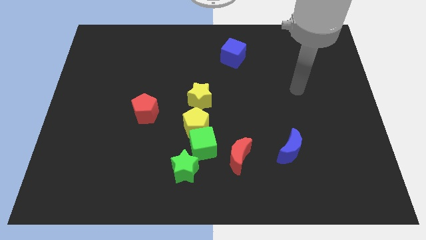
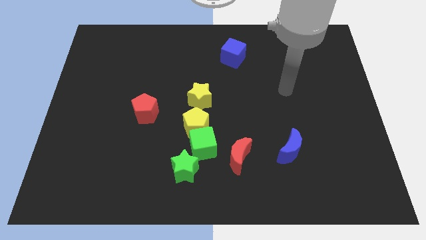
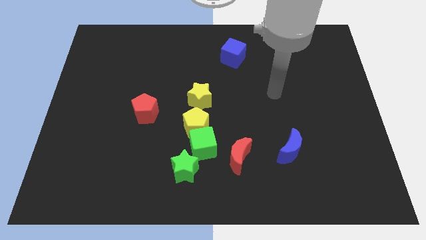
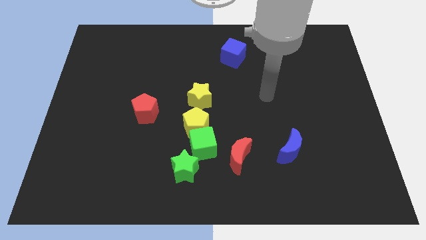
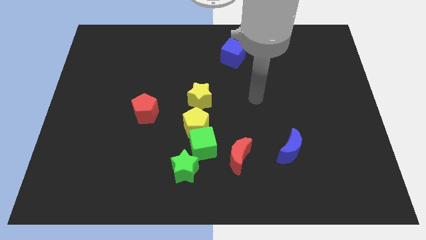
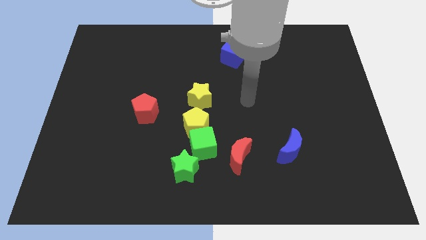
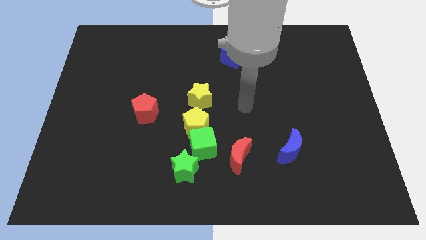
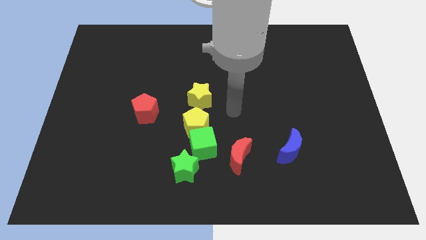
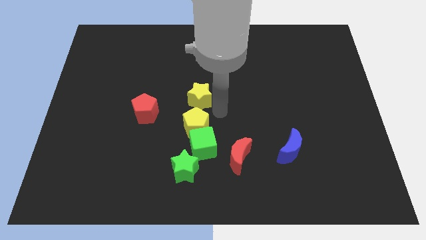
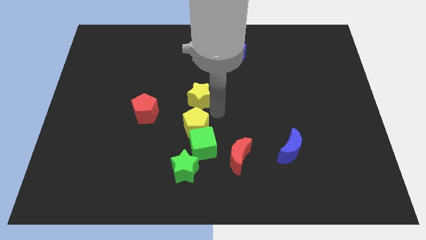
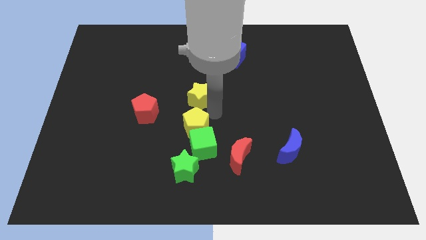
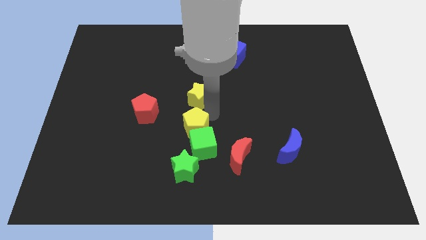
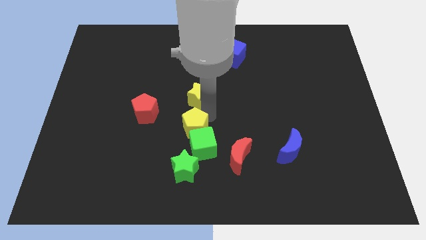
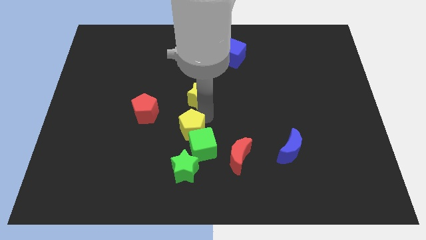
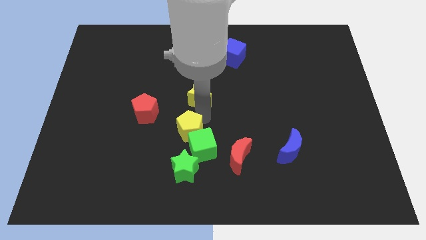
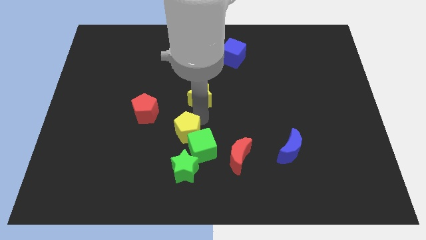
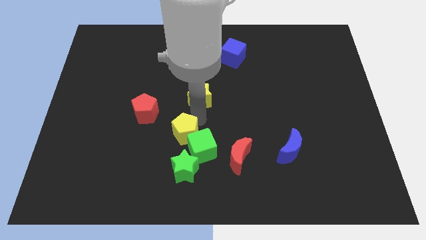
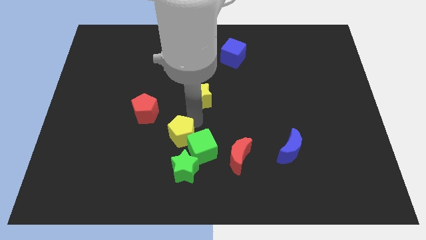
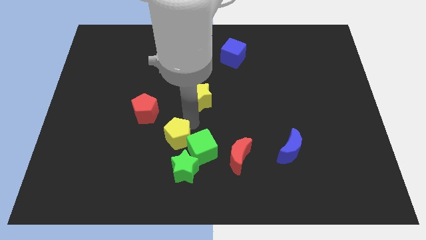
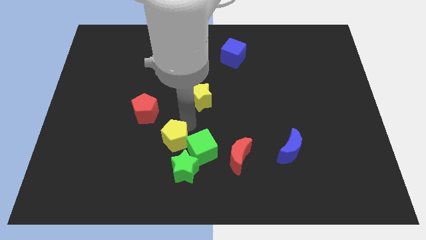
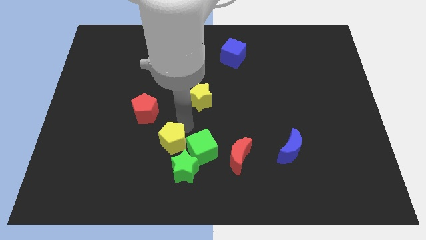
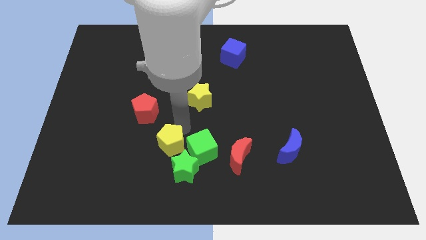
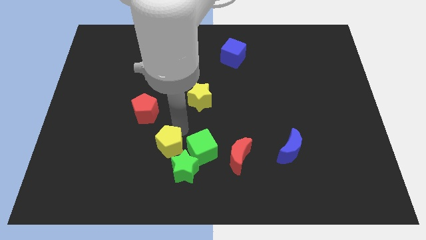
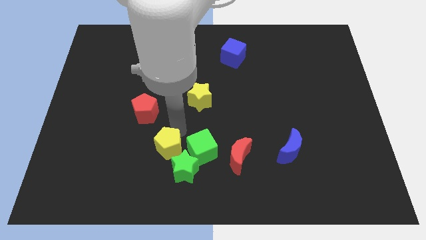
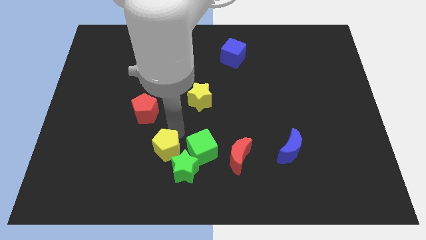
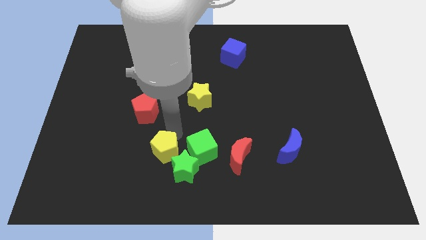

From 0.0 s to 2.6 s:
move the yellow pentagon away from the green cube and yellow star

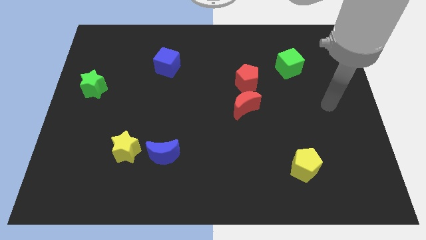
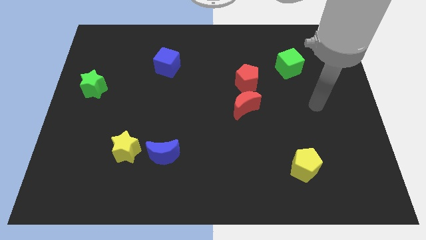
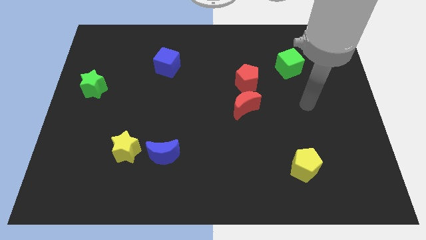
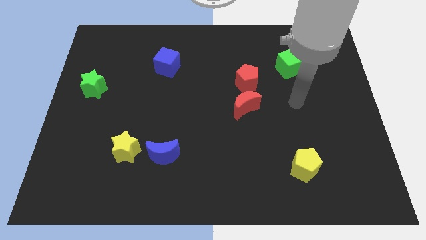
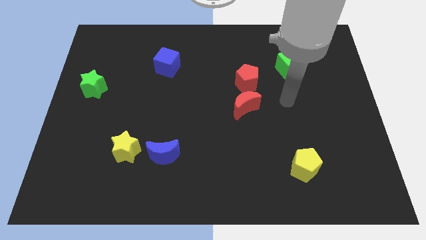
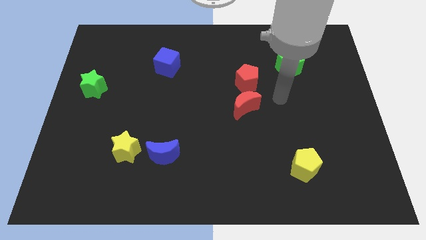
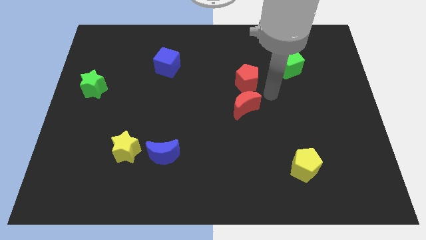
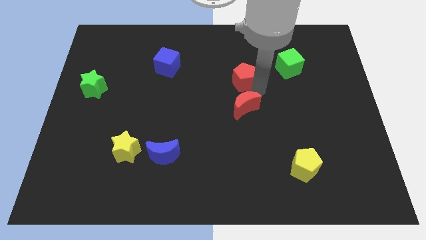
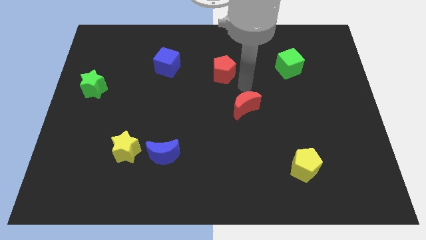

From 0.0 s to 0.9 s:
move the red moon away from the red pentagon

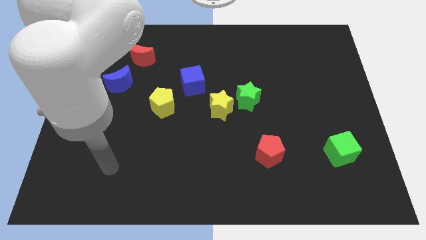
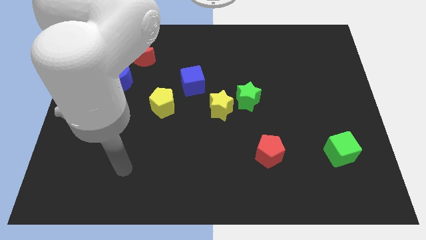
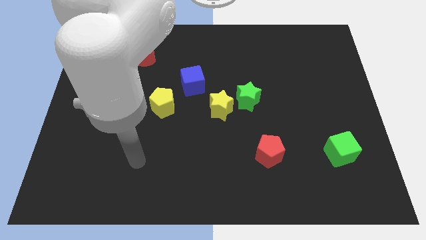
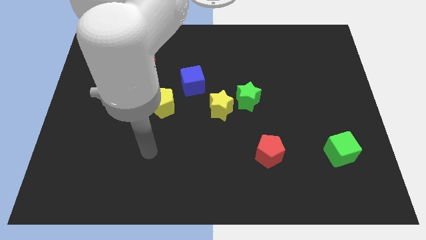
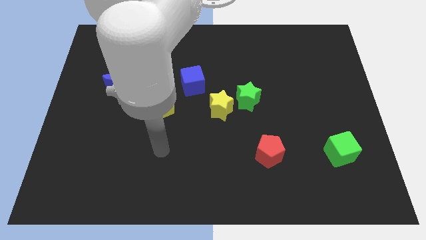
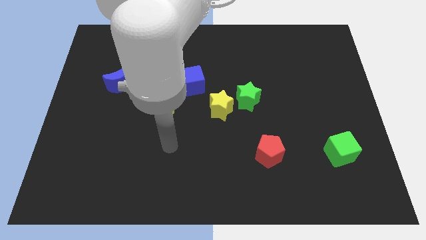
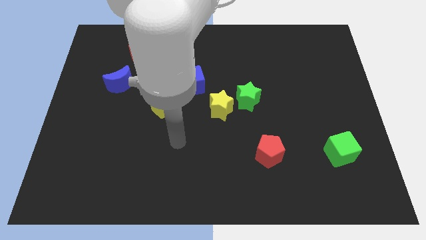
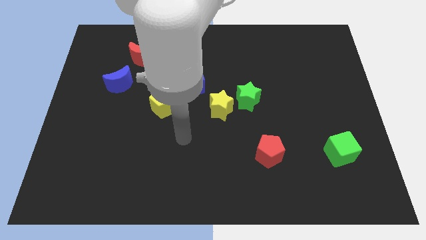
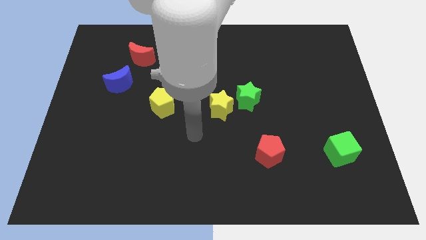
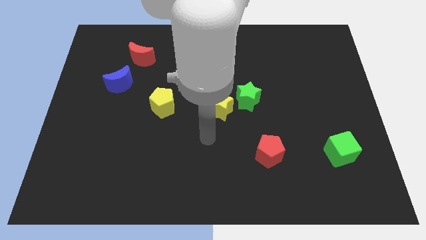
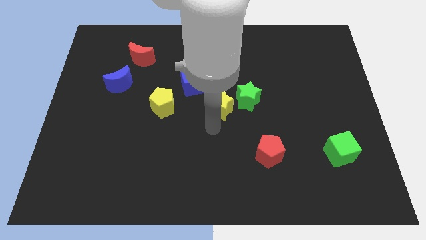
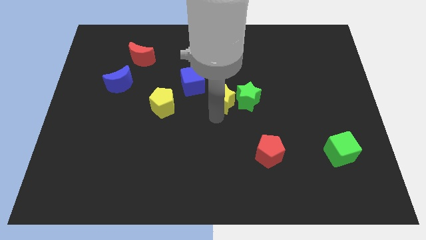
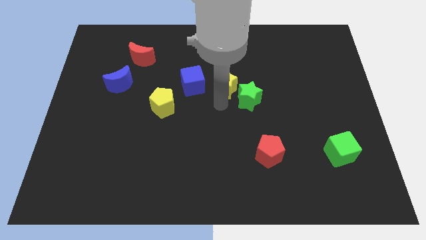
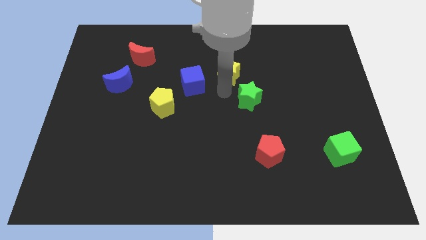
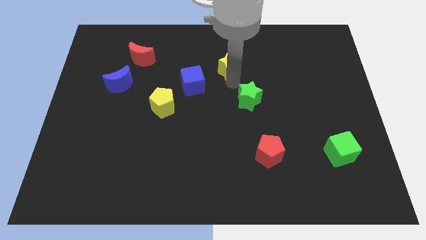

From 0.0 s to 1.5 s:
move the green star away from the yellow star

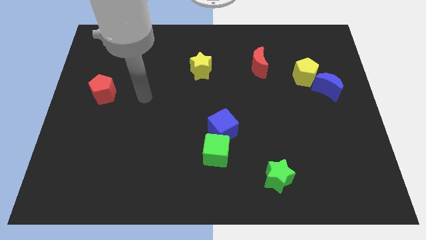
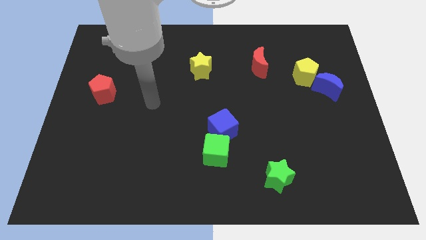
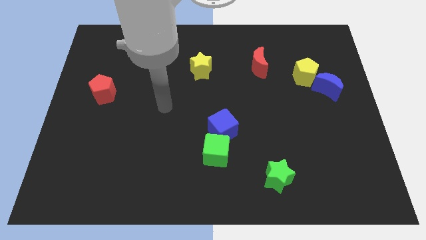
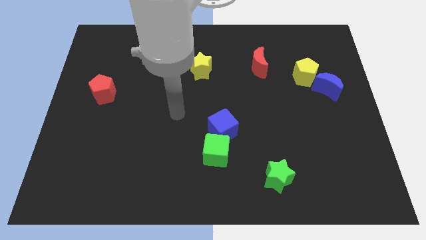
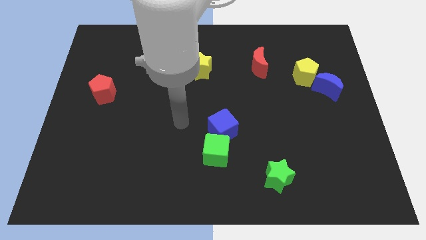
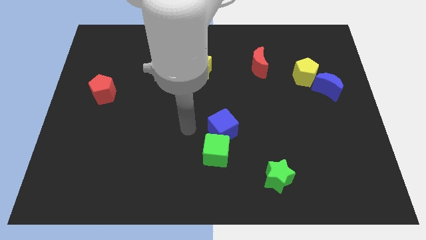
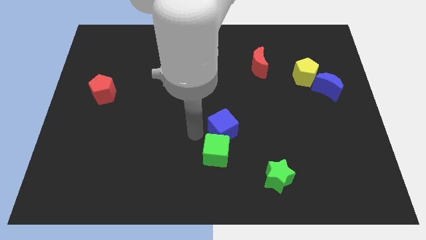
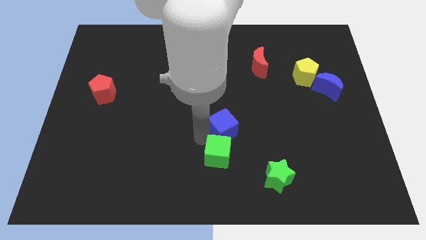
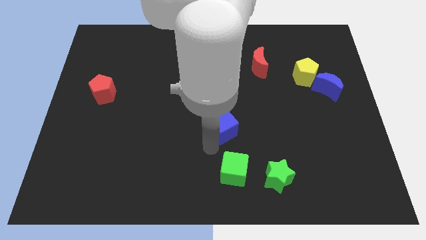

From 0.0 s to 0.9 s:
move the blue cube away from the green cube

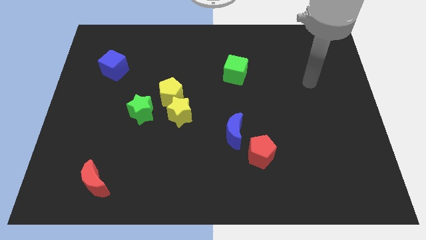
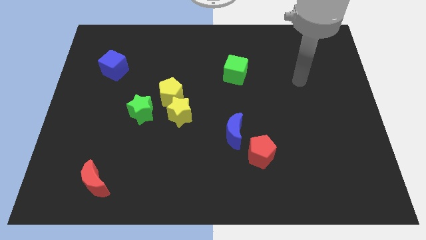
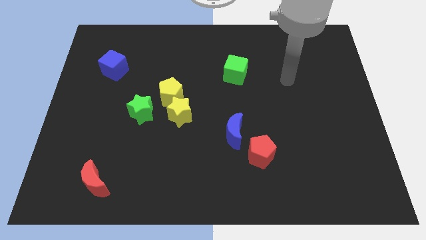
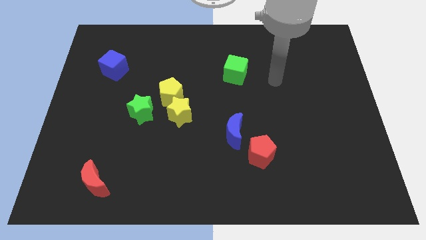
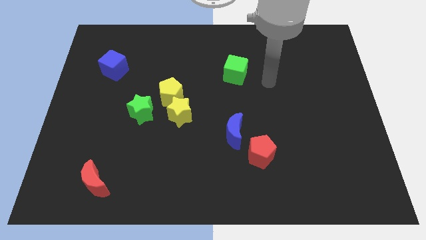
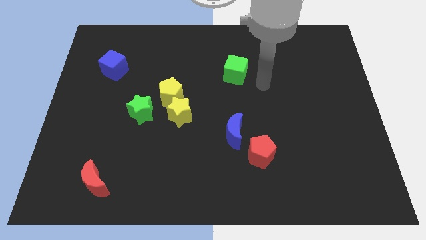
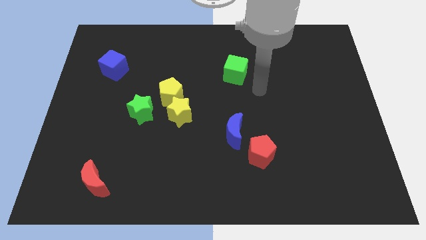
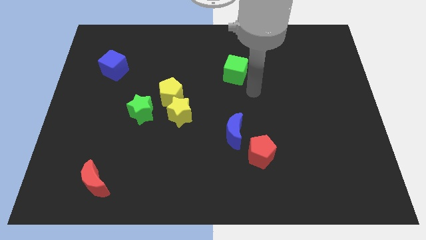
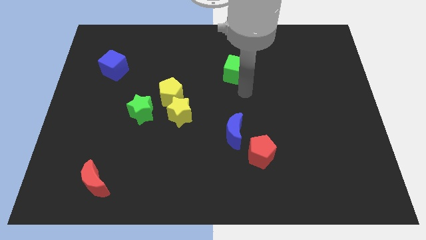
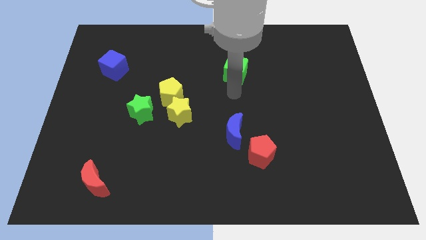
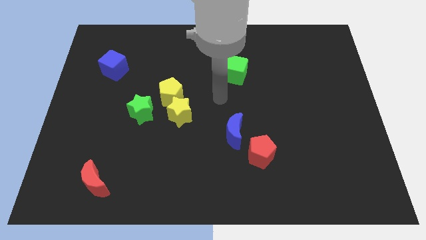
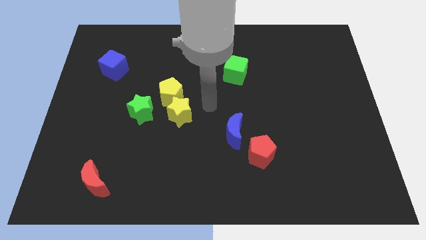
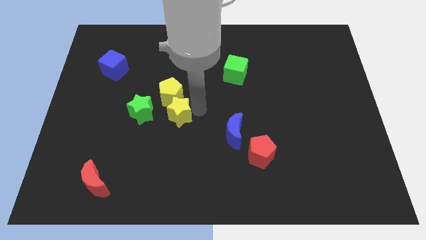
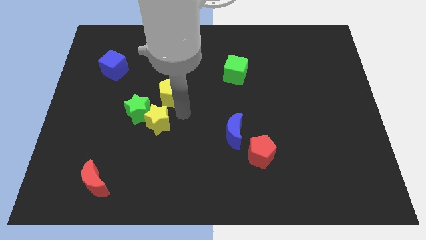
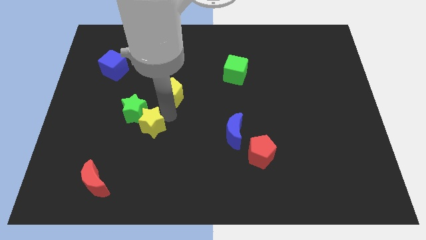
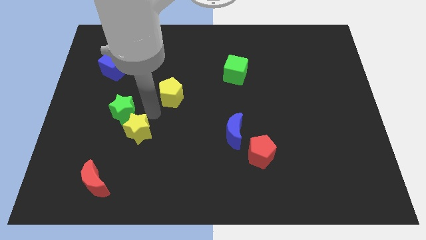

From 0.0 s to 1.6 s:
separate the yellow pentagon from the yellow star and green star

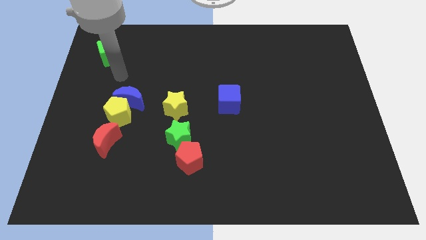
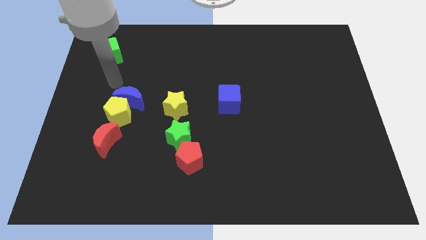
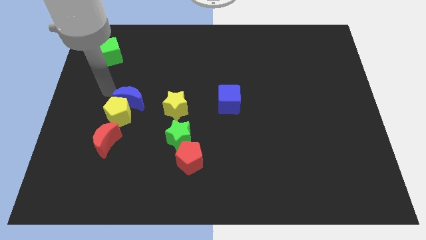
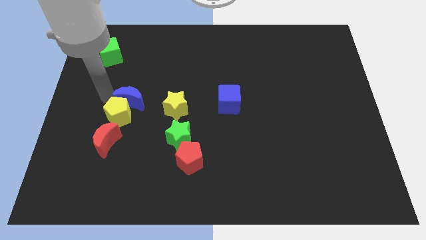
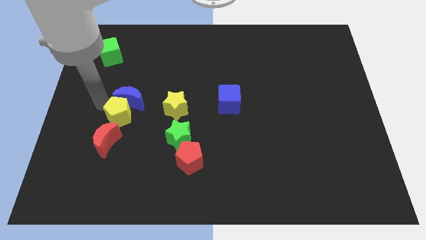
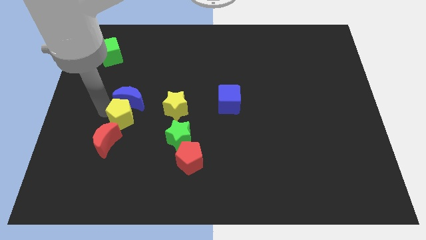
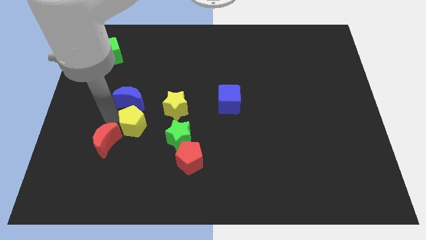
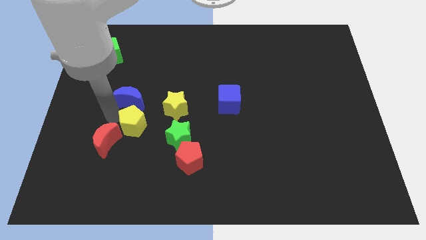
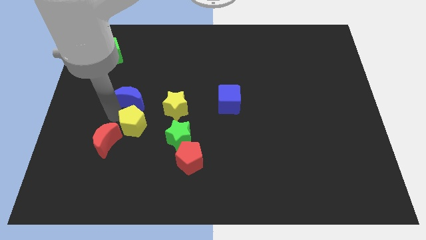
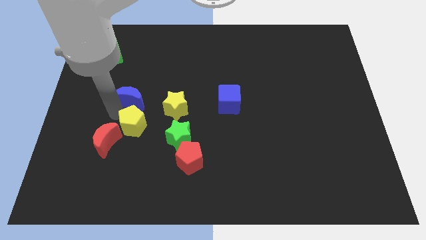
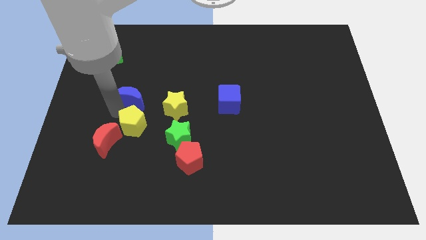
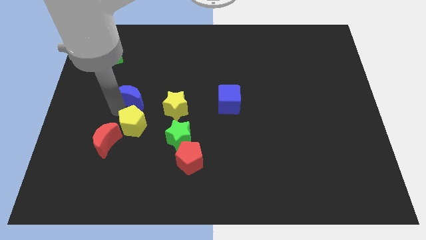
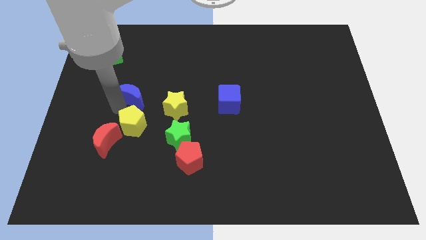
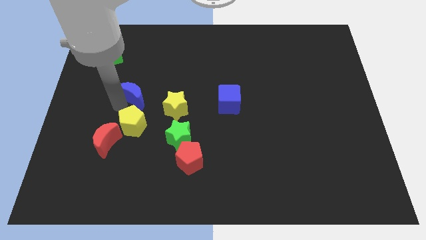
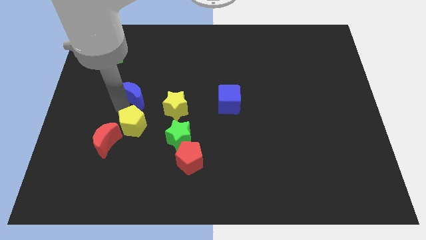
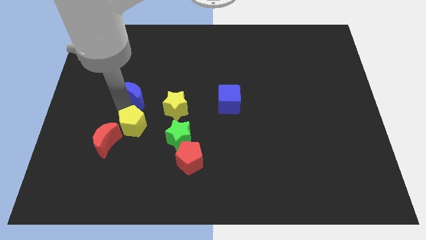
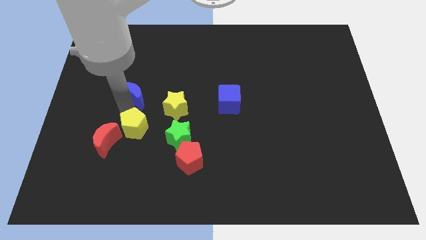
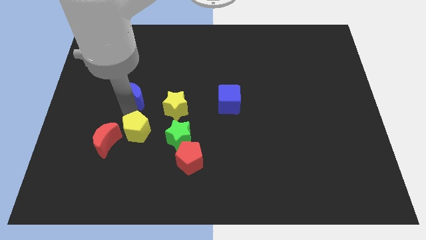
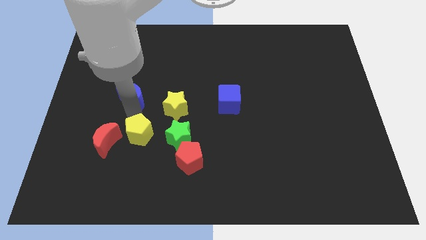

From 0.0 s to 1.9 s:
pull the blue moon apart from the yellow pentagon
